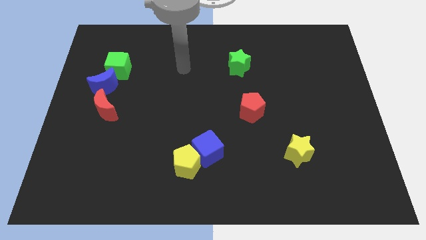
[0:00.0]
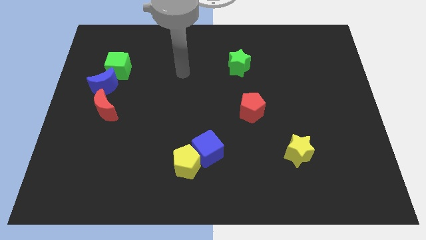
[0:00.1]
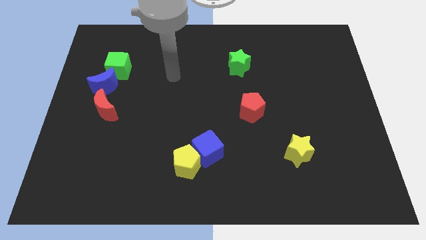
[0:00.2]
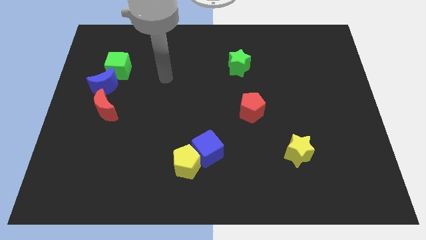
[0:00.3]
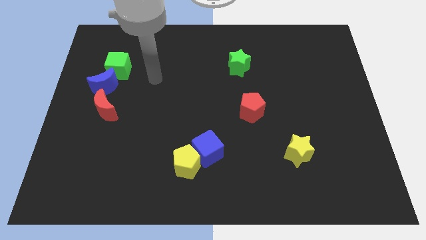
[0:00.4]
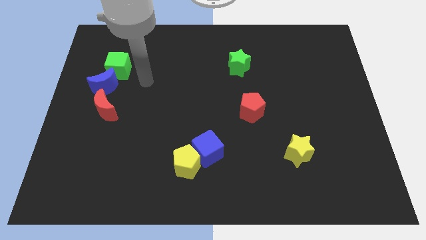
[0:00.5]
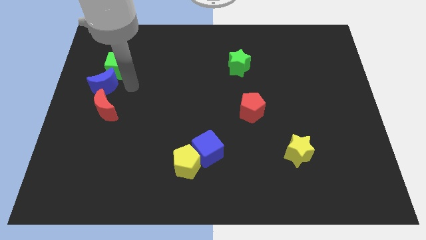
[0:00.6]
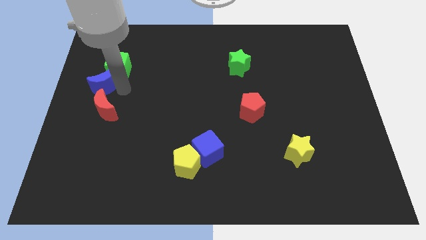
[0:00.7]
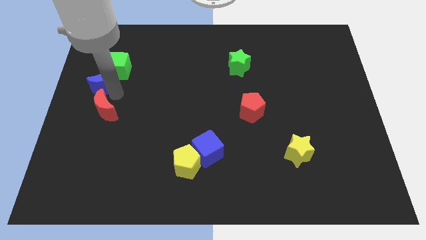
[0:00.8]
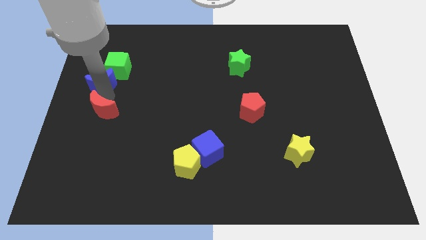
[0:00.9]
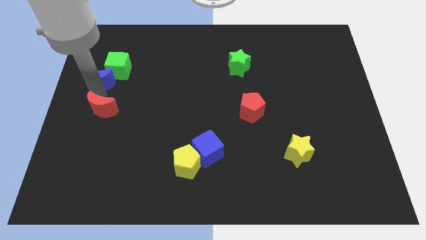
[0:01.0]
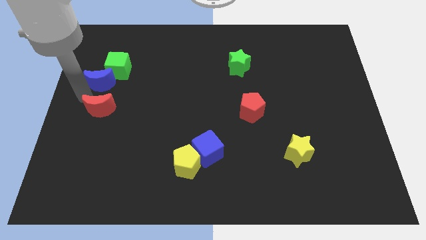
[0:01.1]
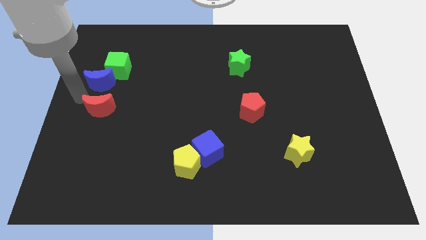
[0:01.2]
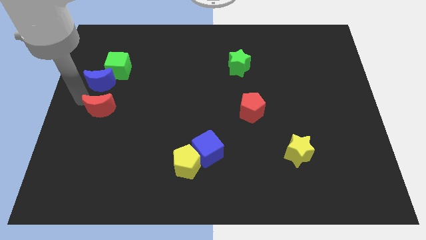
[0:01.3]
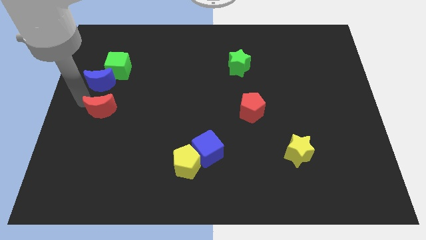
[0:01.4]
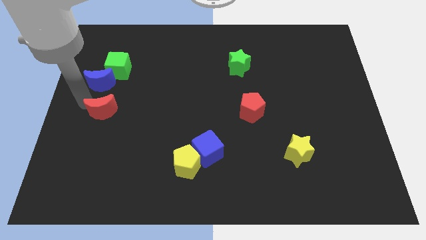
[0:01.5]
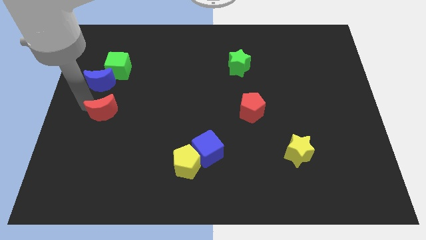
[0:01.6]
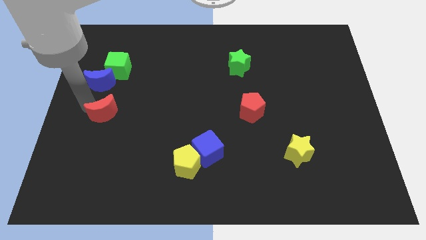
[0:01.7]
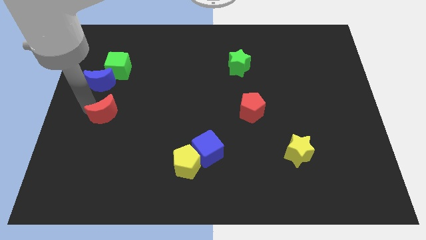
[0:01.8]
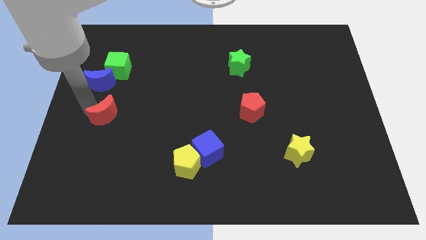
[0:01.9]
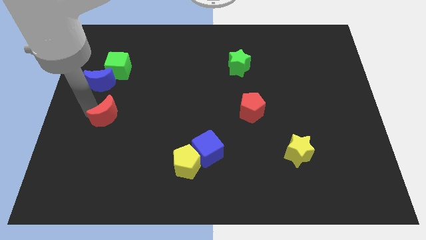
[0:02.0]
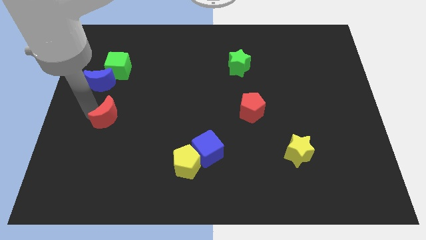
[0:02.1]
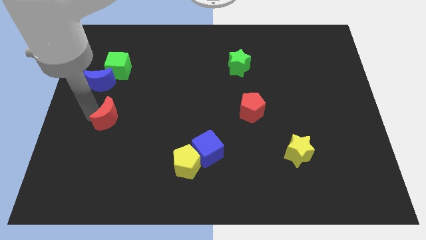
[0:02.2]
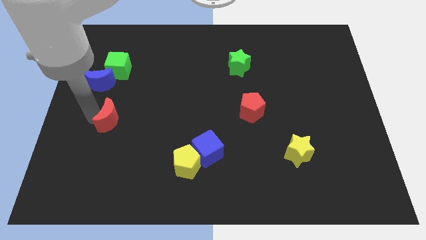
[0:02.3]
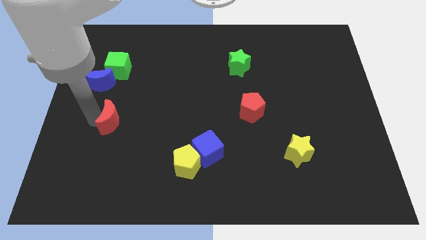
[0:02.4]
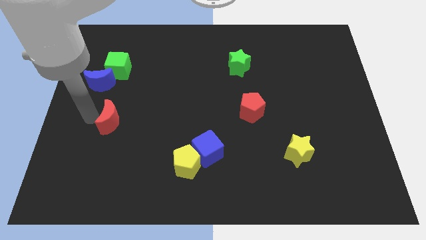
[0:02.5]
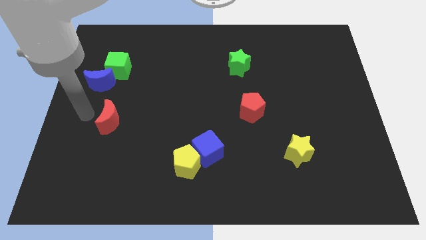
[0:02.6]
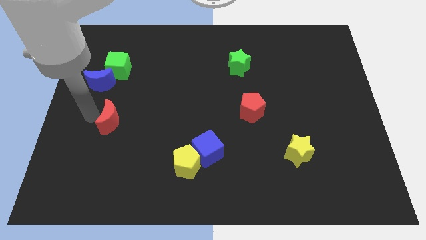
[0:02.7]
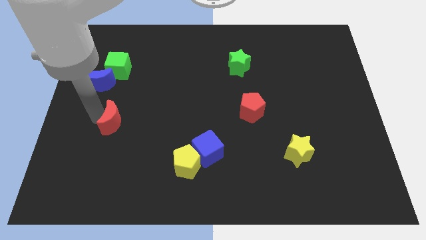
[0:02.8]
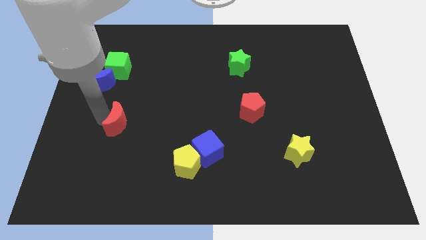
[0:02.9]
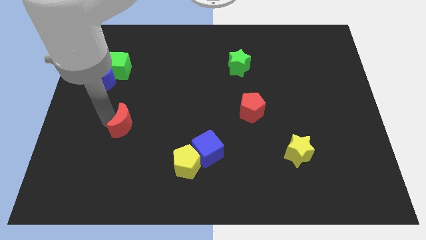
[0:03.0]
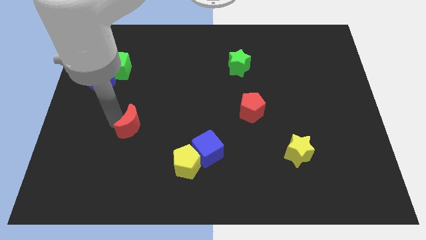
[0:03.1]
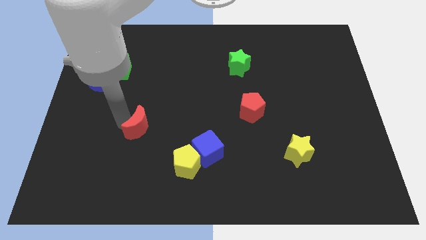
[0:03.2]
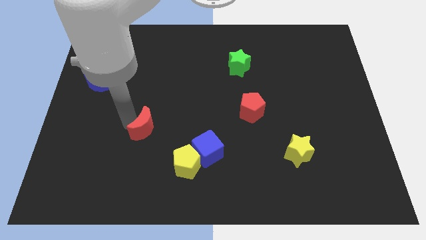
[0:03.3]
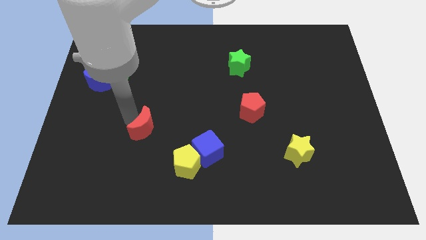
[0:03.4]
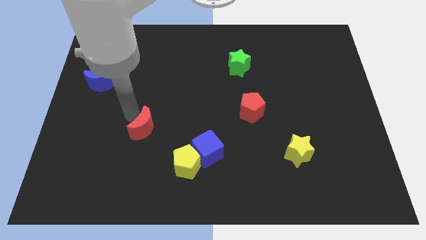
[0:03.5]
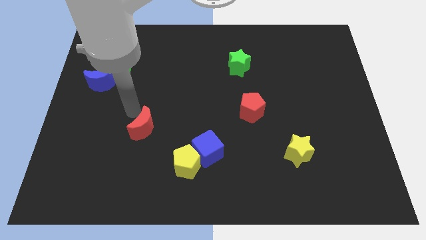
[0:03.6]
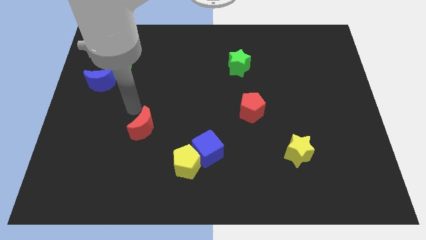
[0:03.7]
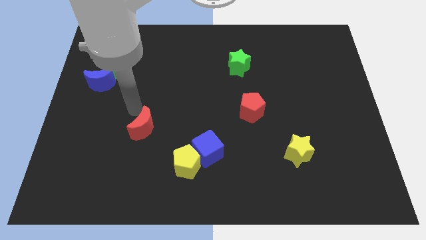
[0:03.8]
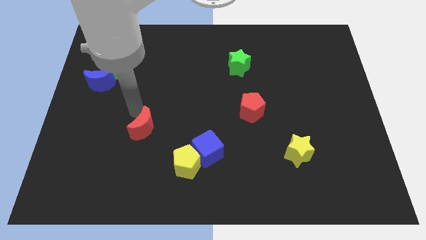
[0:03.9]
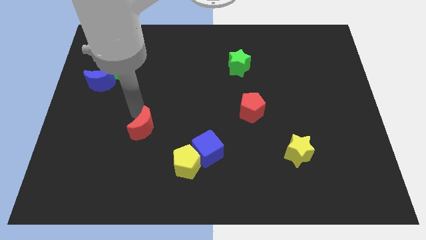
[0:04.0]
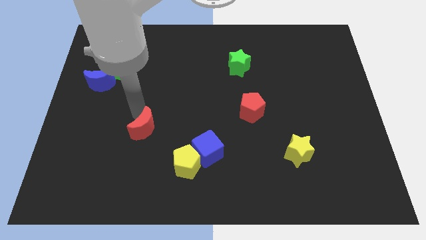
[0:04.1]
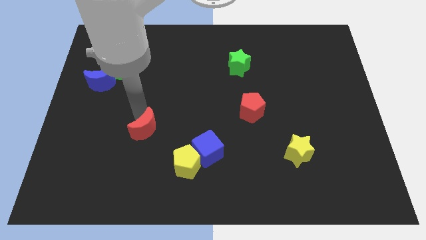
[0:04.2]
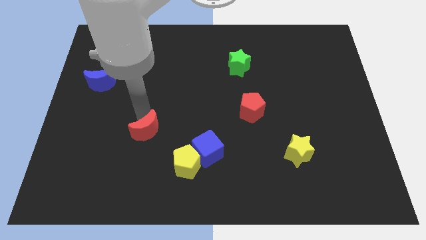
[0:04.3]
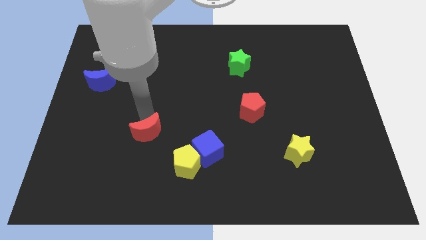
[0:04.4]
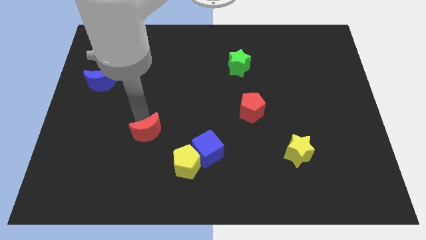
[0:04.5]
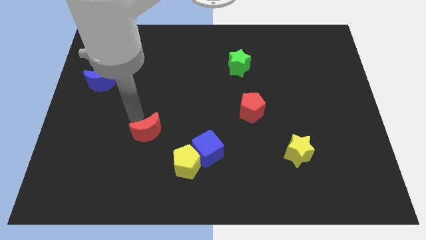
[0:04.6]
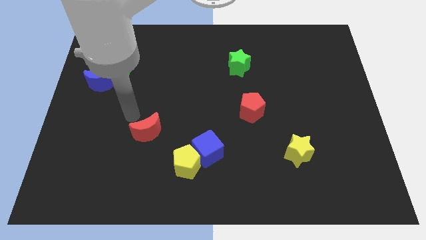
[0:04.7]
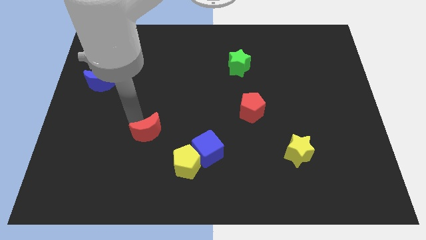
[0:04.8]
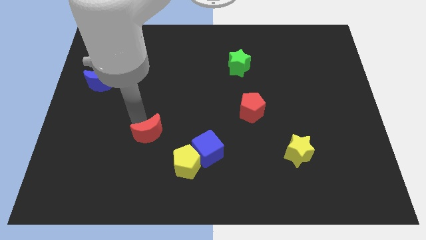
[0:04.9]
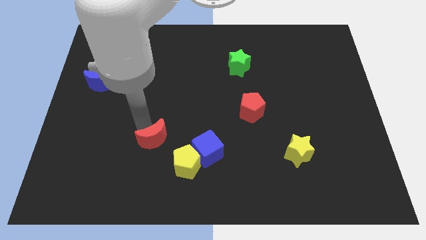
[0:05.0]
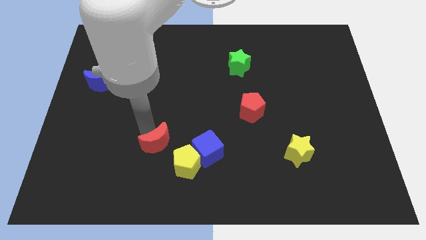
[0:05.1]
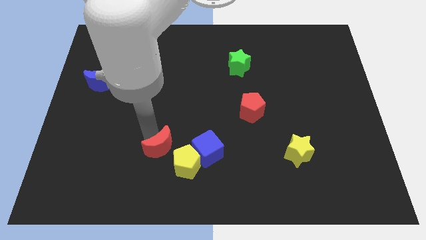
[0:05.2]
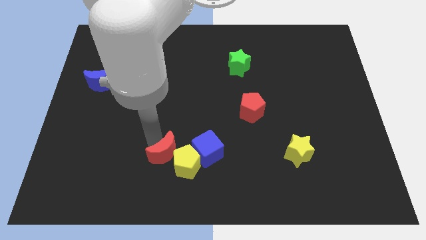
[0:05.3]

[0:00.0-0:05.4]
put the red moon towards the yellow pentagon

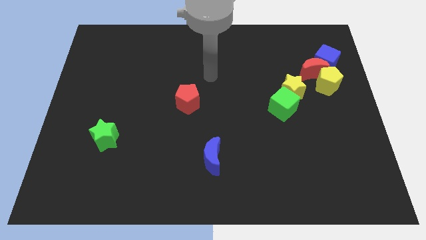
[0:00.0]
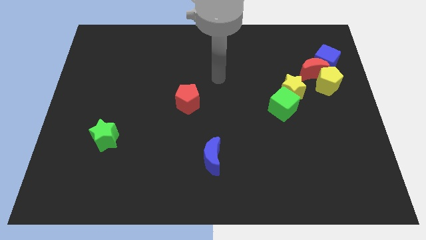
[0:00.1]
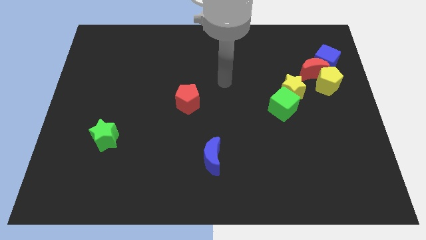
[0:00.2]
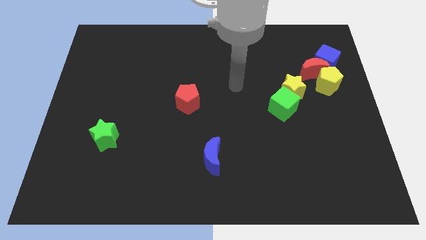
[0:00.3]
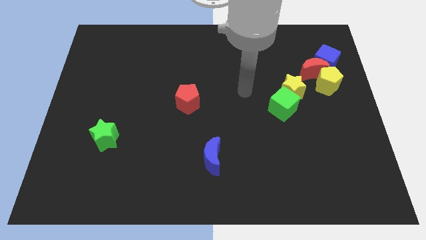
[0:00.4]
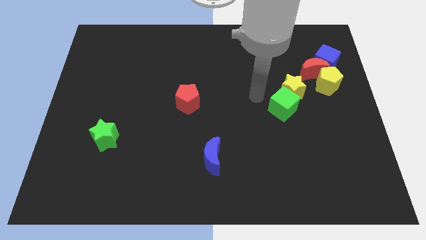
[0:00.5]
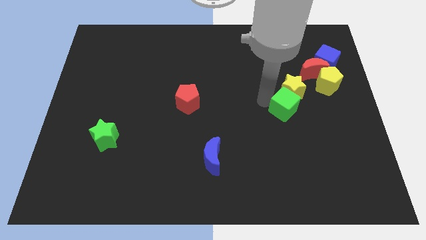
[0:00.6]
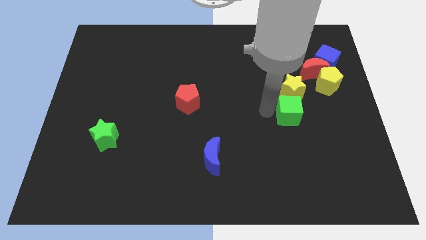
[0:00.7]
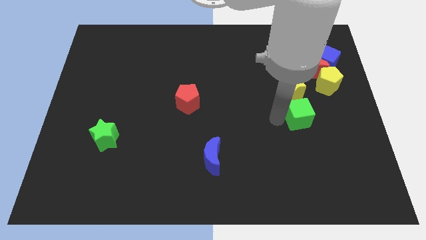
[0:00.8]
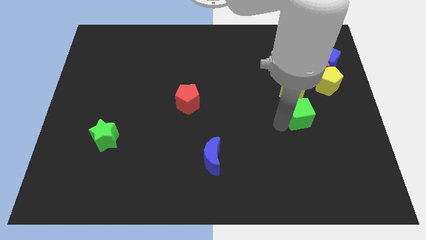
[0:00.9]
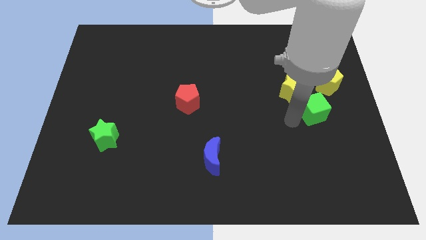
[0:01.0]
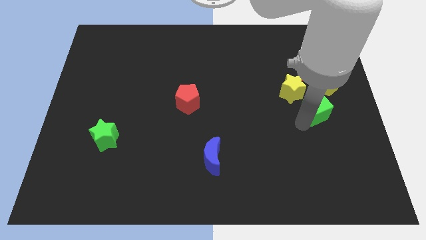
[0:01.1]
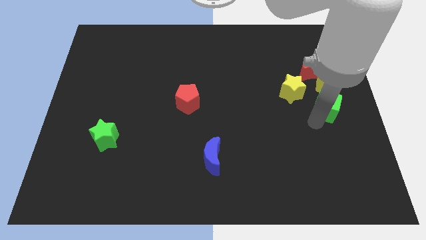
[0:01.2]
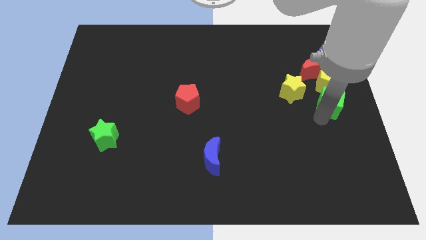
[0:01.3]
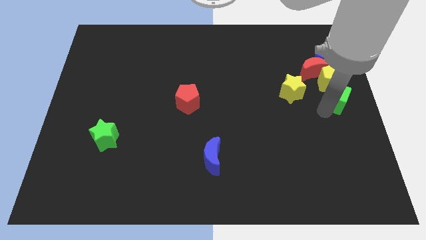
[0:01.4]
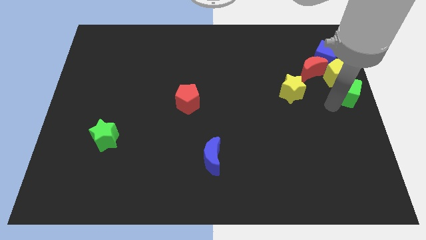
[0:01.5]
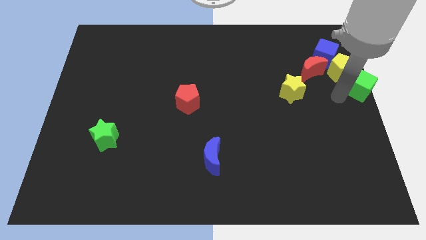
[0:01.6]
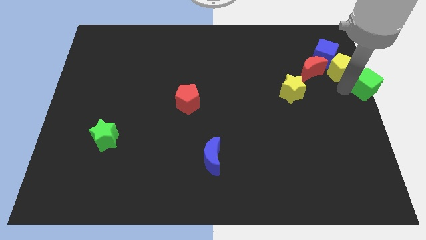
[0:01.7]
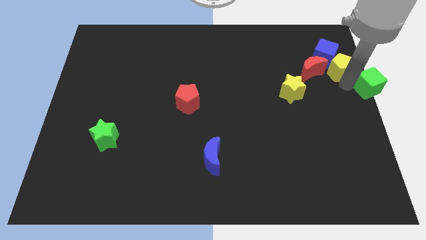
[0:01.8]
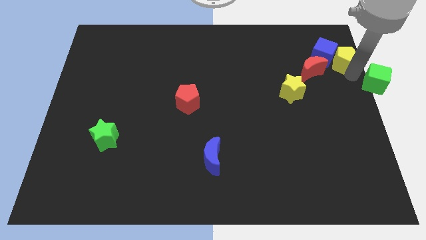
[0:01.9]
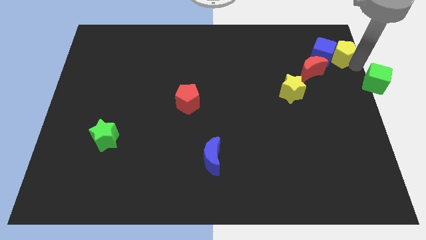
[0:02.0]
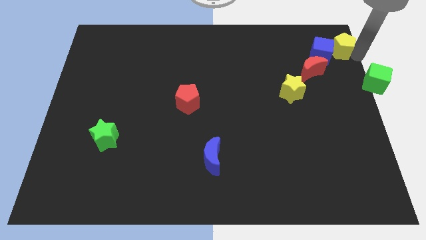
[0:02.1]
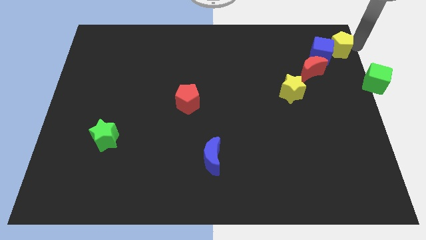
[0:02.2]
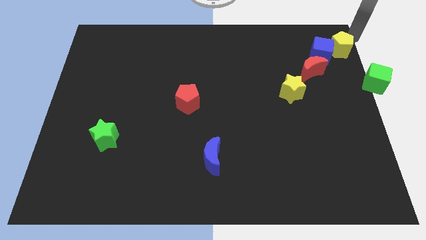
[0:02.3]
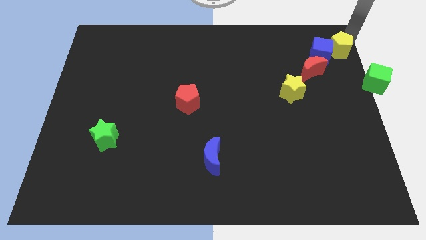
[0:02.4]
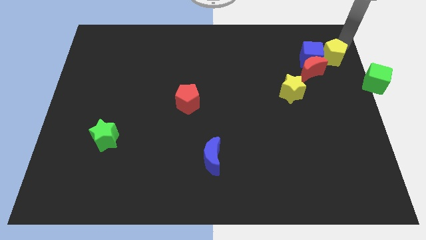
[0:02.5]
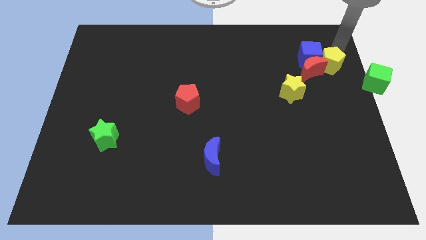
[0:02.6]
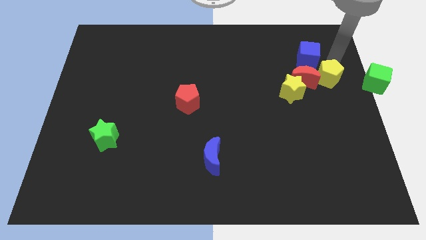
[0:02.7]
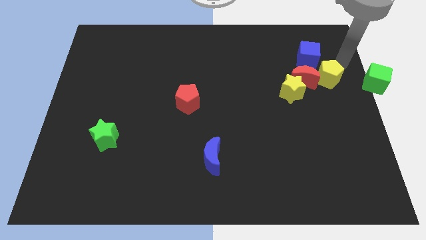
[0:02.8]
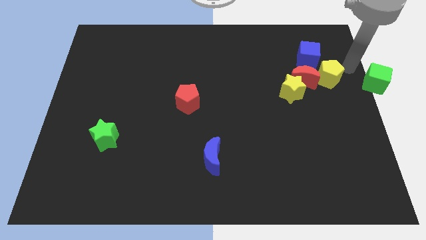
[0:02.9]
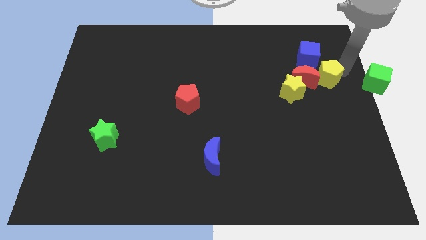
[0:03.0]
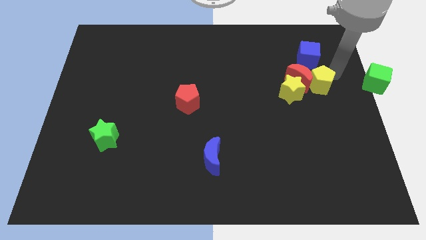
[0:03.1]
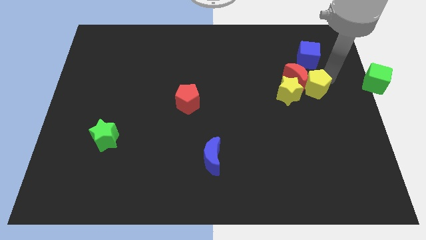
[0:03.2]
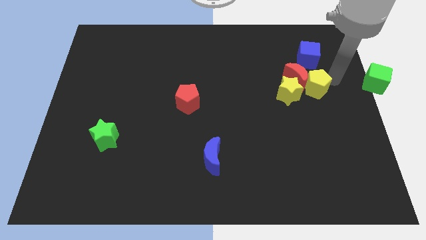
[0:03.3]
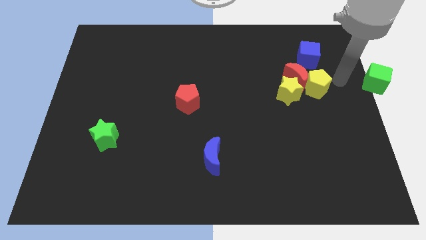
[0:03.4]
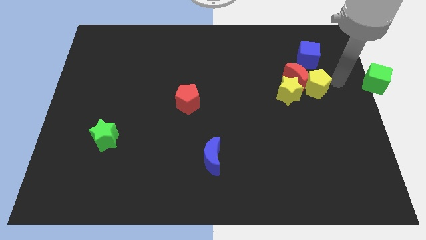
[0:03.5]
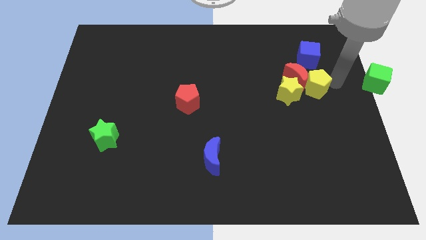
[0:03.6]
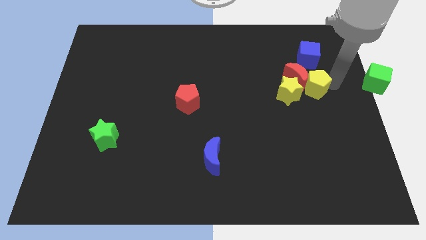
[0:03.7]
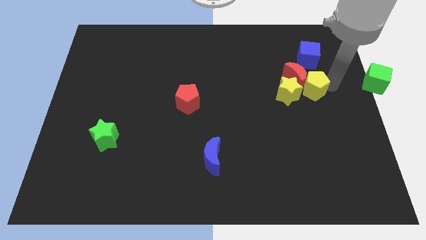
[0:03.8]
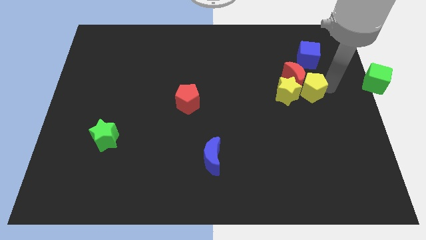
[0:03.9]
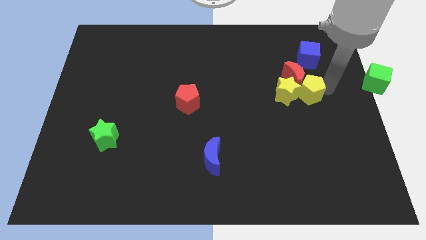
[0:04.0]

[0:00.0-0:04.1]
move the yellow pentagon to the yellow star
